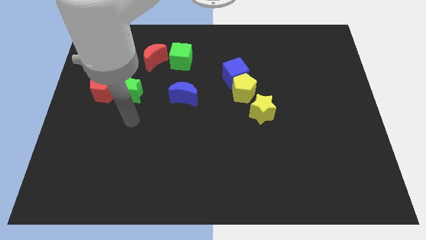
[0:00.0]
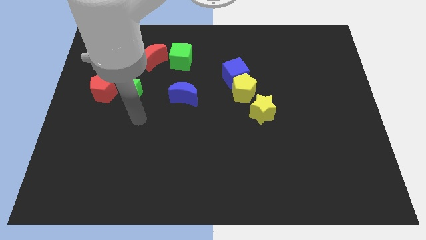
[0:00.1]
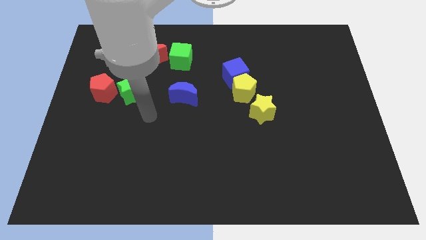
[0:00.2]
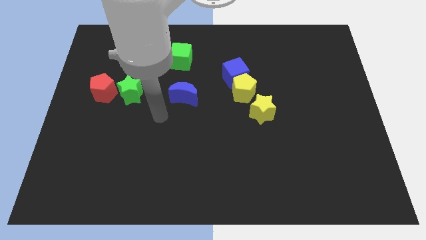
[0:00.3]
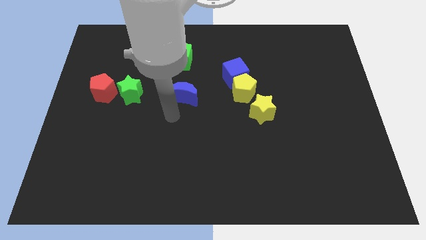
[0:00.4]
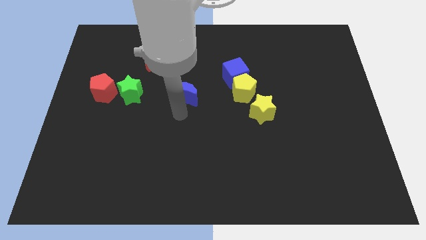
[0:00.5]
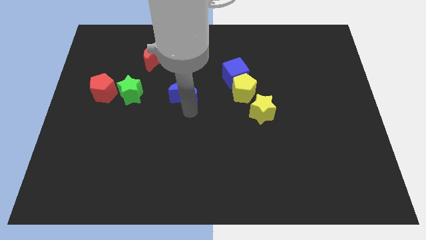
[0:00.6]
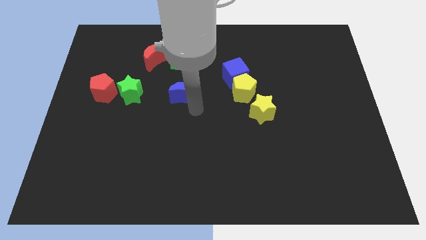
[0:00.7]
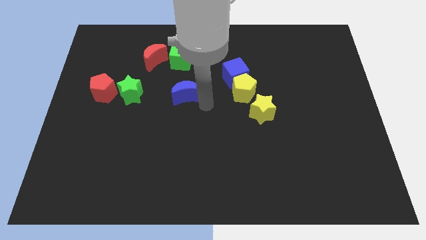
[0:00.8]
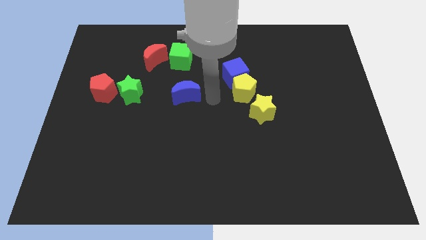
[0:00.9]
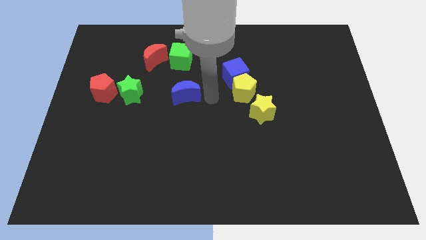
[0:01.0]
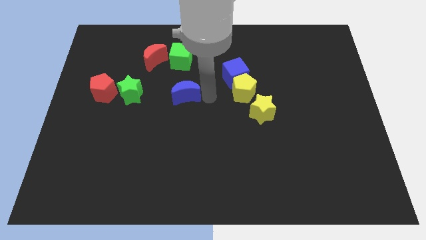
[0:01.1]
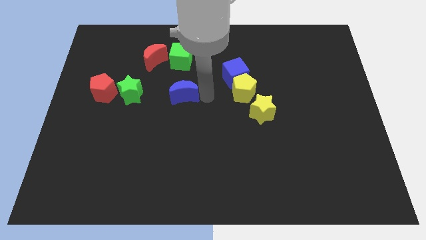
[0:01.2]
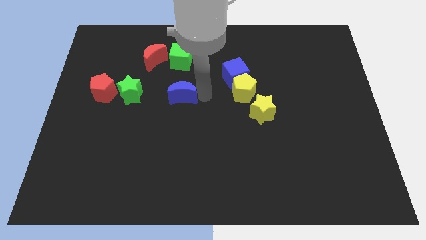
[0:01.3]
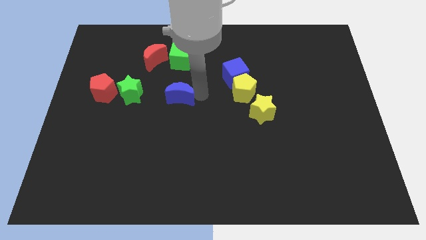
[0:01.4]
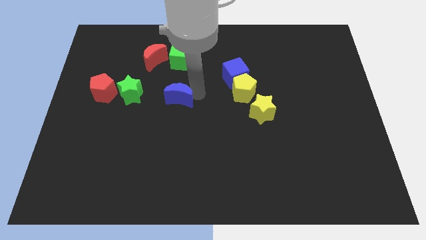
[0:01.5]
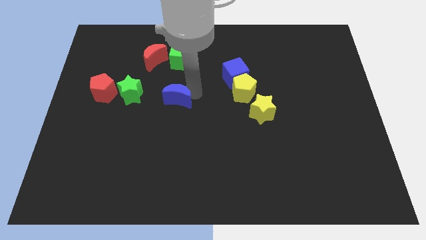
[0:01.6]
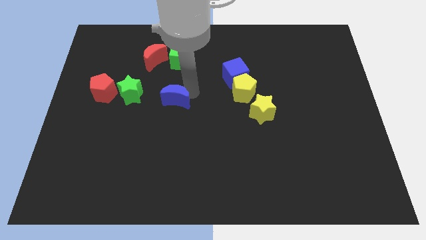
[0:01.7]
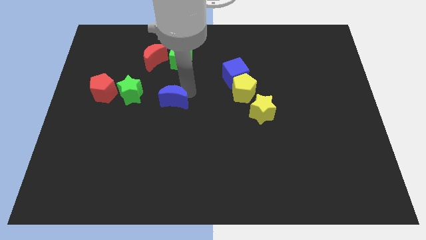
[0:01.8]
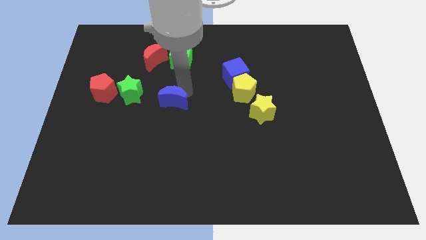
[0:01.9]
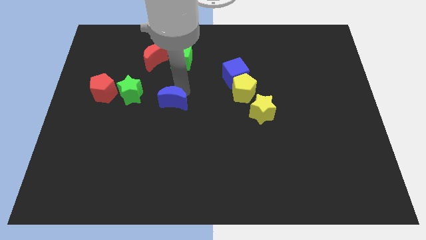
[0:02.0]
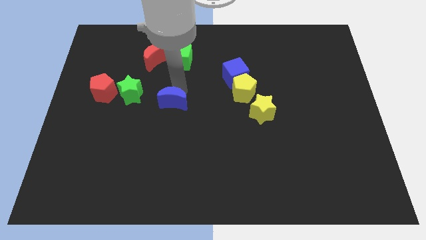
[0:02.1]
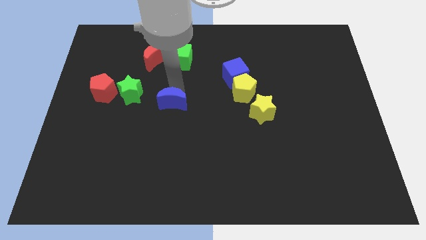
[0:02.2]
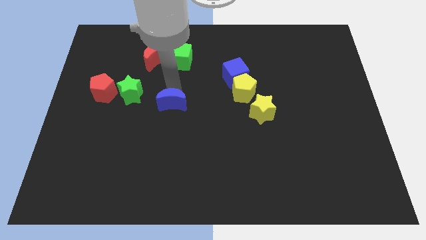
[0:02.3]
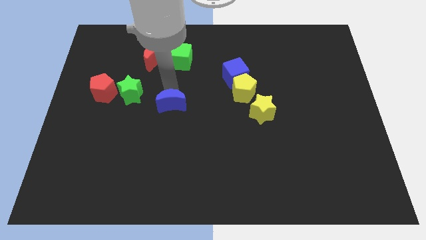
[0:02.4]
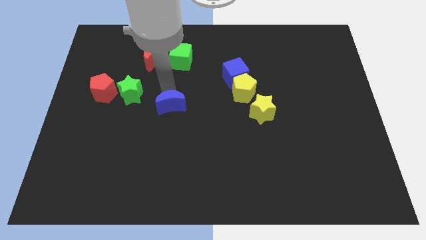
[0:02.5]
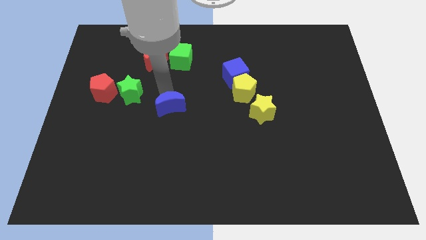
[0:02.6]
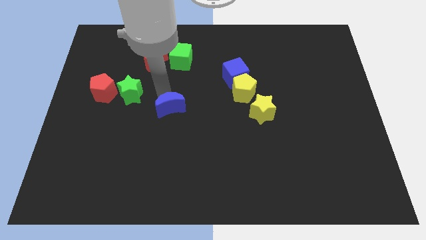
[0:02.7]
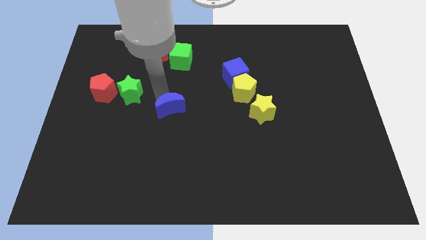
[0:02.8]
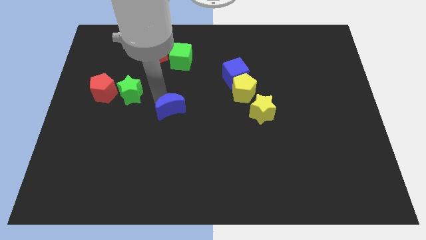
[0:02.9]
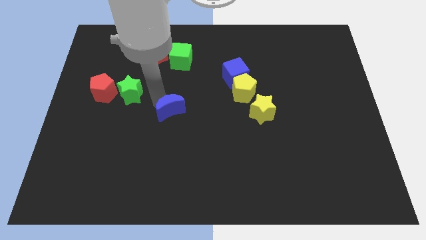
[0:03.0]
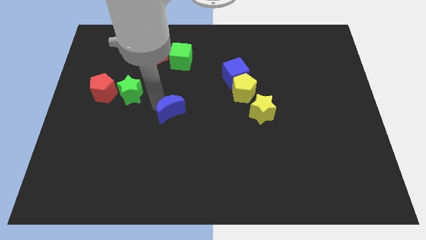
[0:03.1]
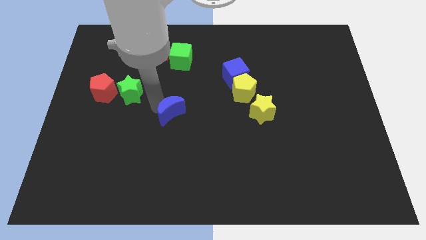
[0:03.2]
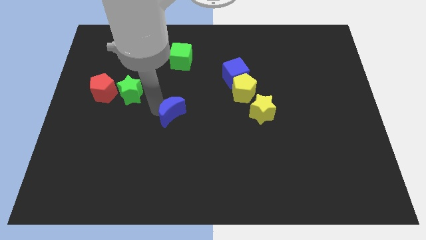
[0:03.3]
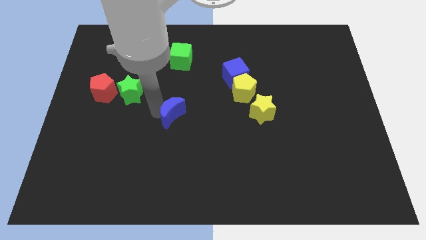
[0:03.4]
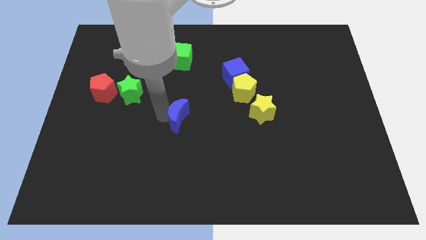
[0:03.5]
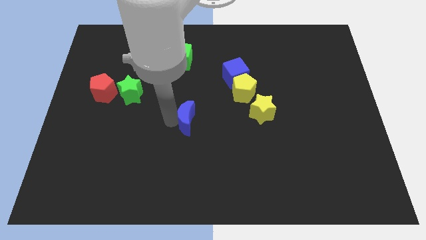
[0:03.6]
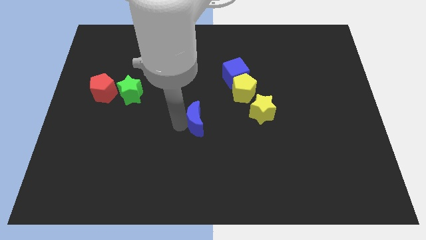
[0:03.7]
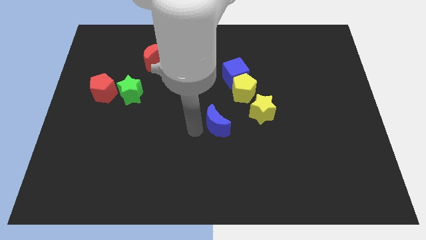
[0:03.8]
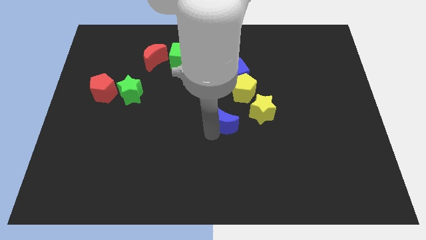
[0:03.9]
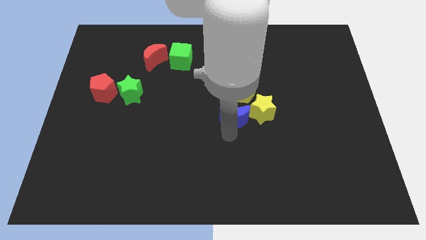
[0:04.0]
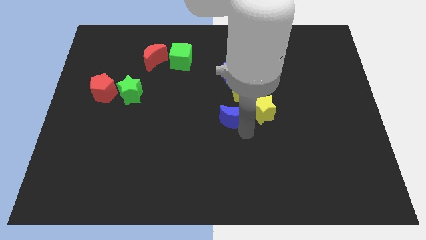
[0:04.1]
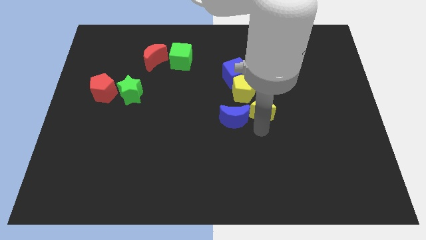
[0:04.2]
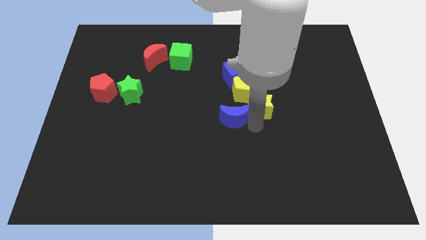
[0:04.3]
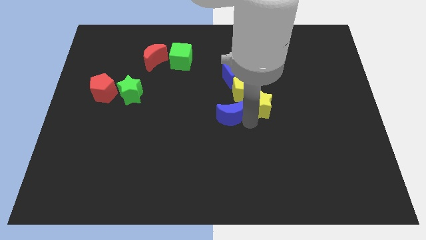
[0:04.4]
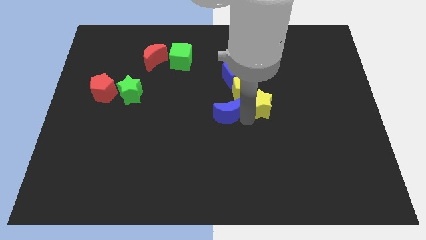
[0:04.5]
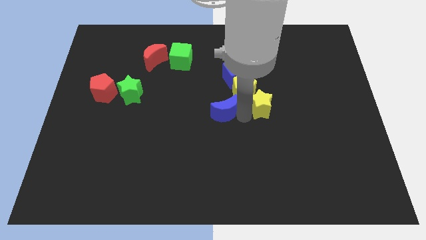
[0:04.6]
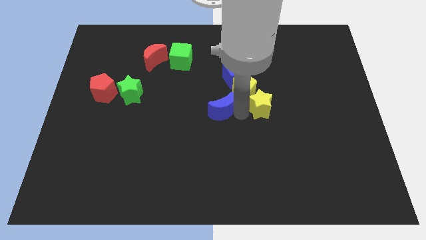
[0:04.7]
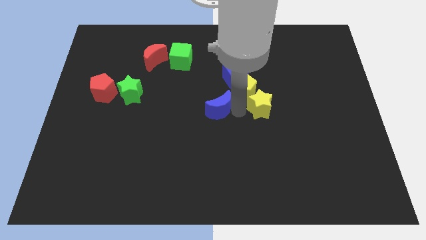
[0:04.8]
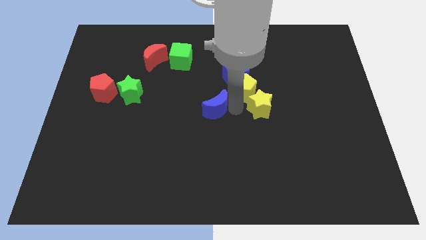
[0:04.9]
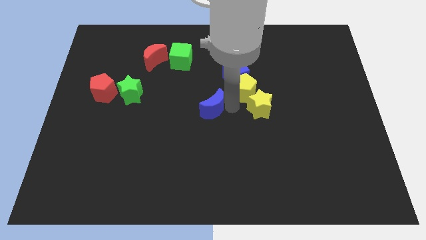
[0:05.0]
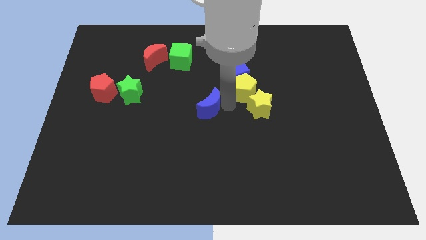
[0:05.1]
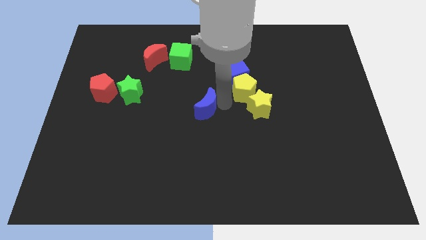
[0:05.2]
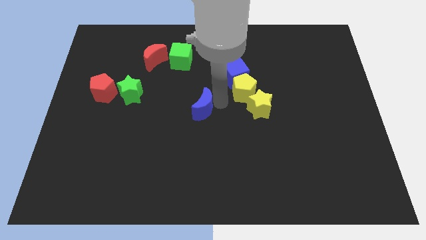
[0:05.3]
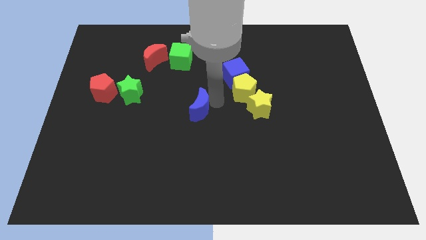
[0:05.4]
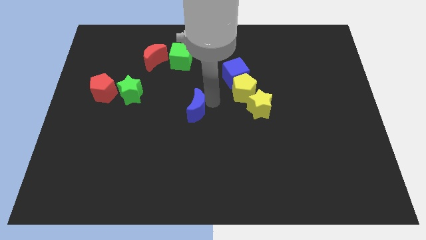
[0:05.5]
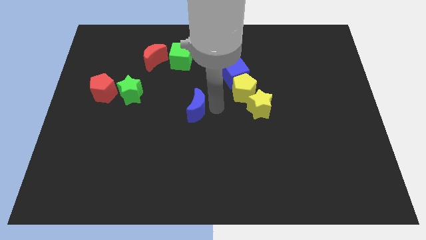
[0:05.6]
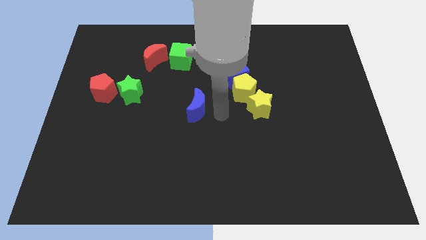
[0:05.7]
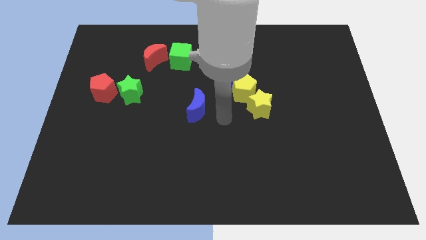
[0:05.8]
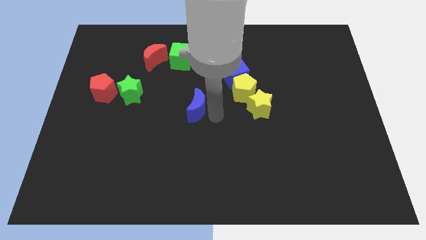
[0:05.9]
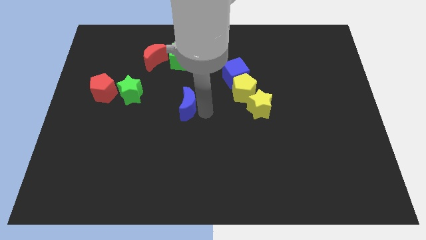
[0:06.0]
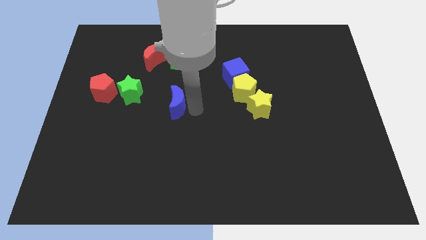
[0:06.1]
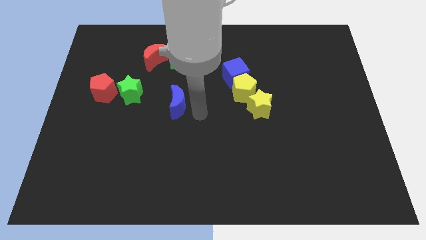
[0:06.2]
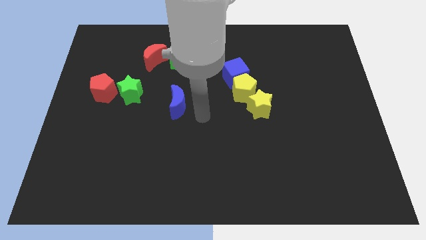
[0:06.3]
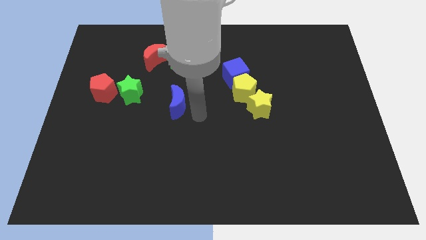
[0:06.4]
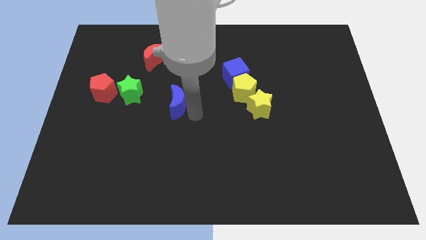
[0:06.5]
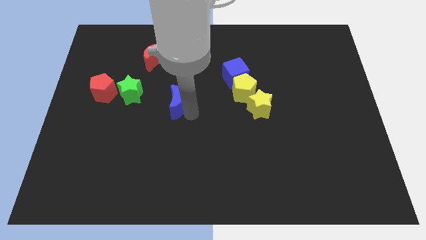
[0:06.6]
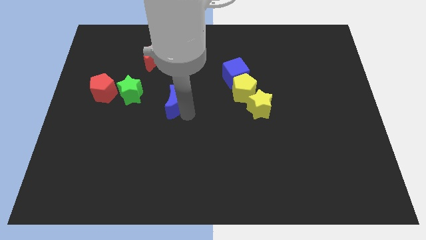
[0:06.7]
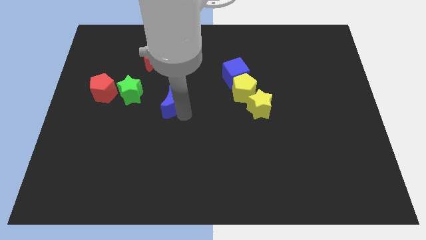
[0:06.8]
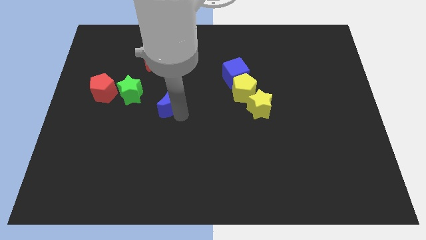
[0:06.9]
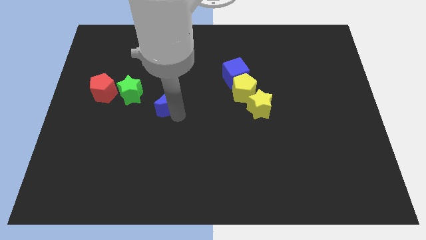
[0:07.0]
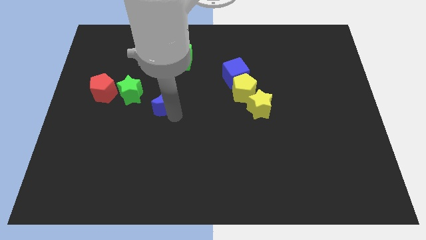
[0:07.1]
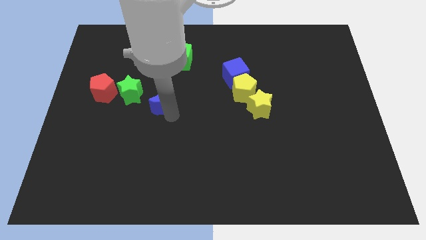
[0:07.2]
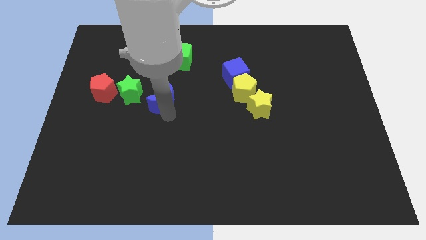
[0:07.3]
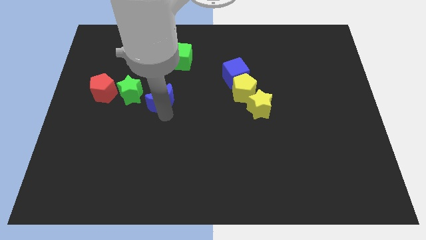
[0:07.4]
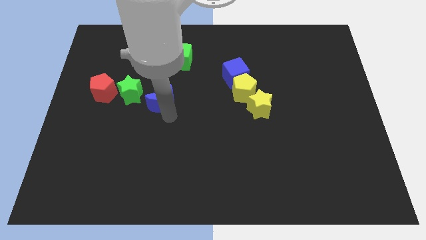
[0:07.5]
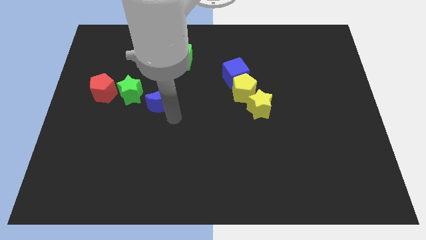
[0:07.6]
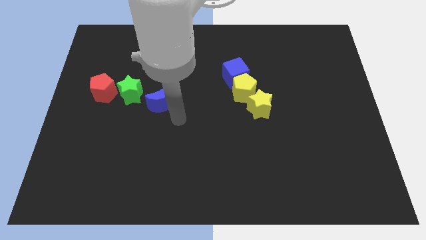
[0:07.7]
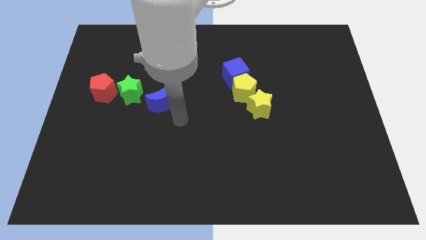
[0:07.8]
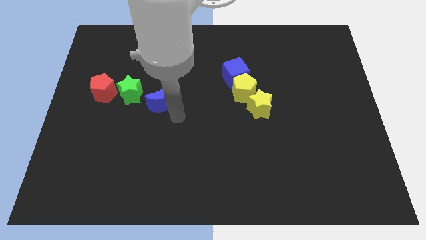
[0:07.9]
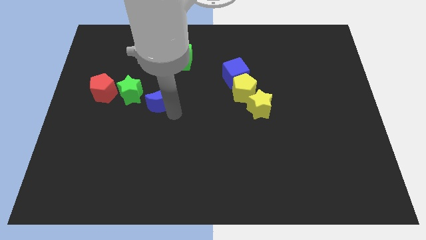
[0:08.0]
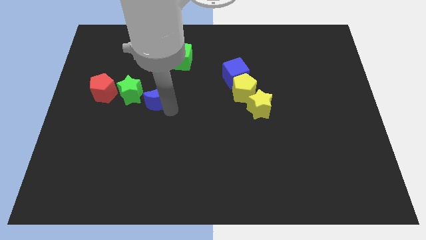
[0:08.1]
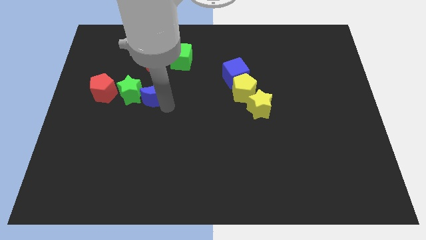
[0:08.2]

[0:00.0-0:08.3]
move the blue moon next to the green star
